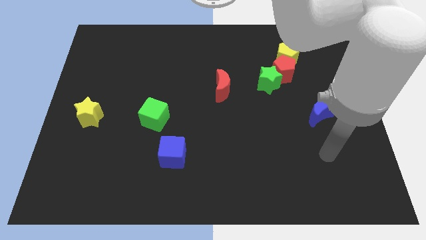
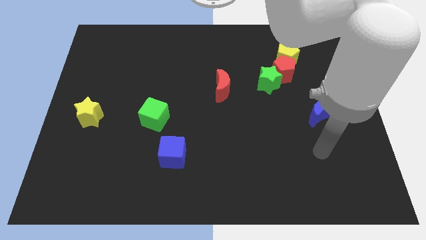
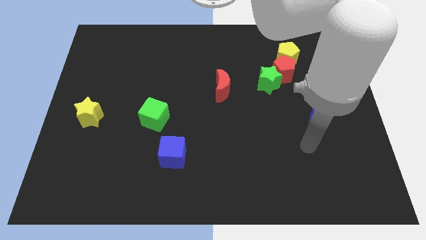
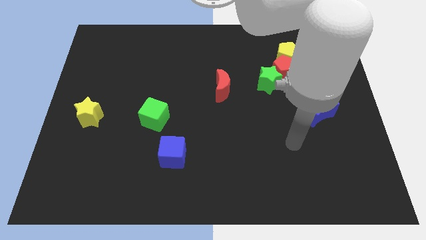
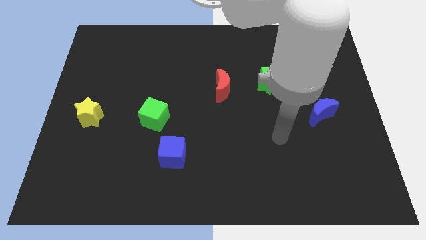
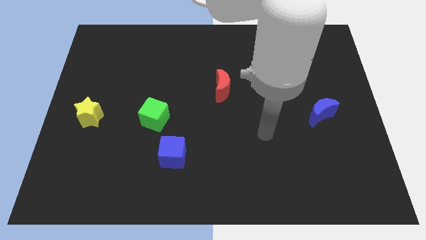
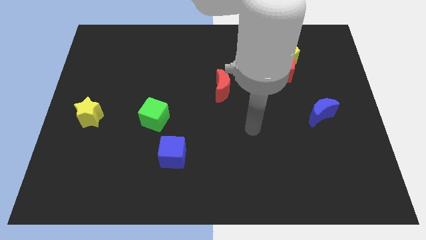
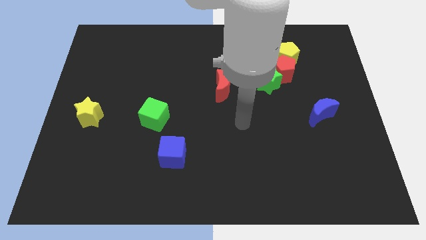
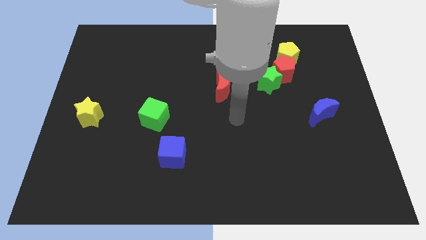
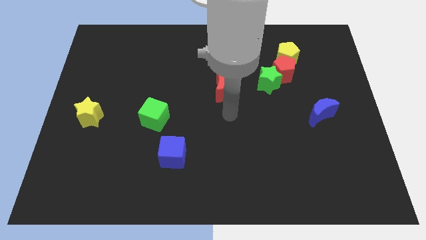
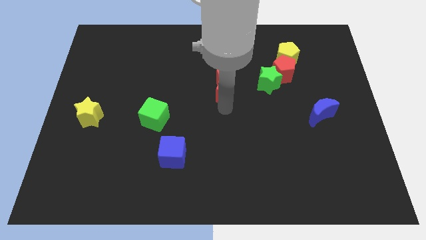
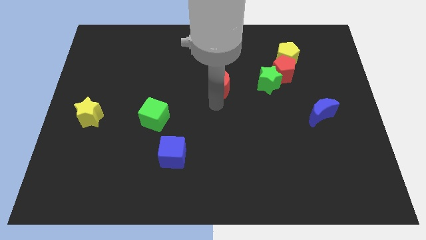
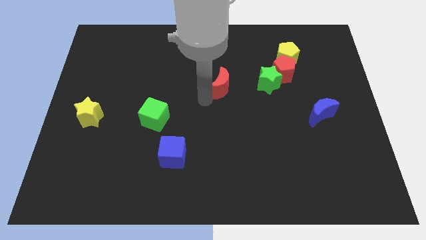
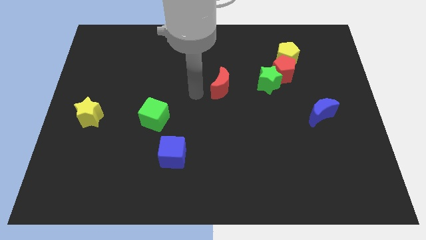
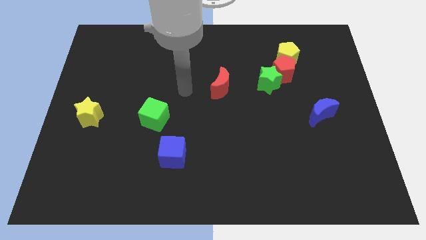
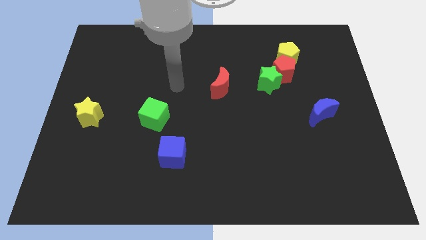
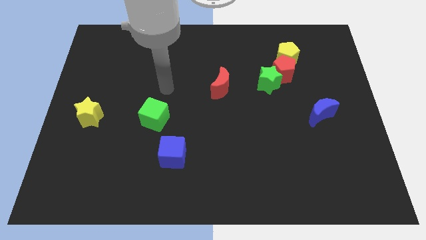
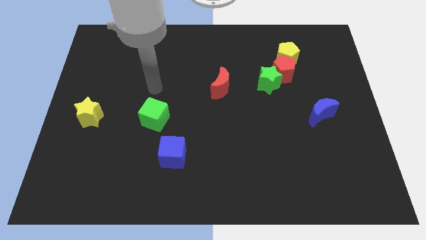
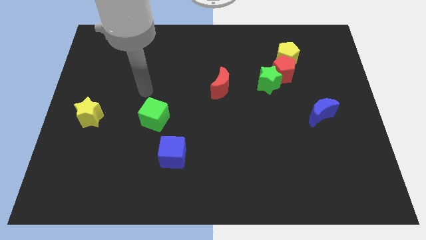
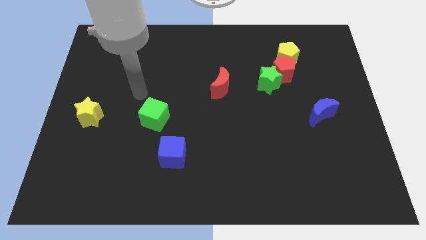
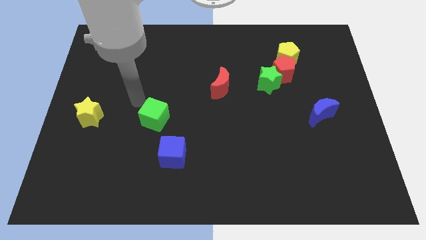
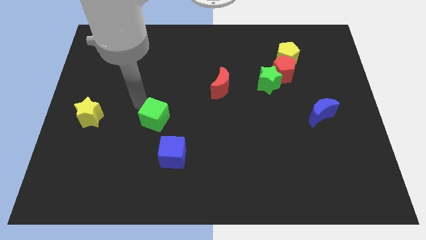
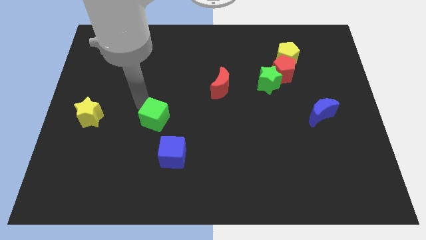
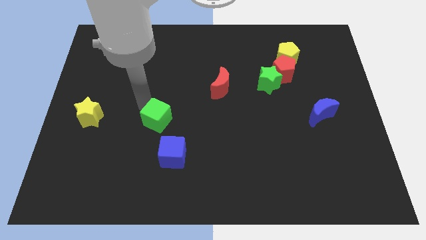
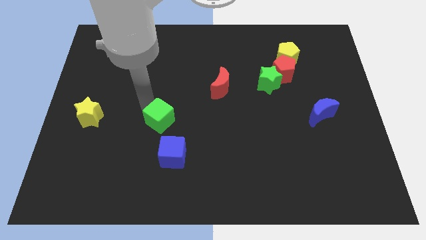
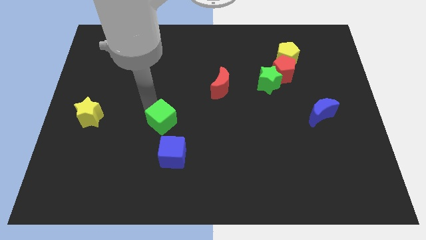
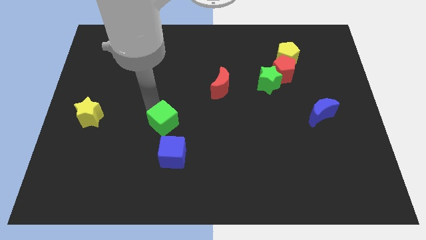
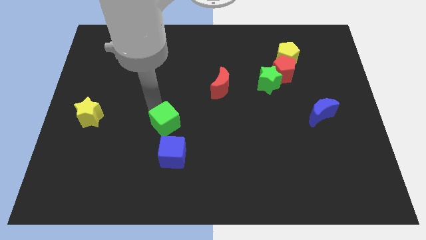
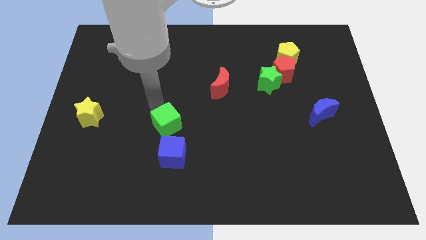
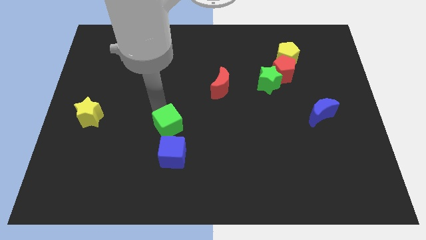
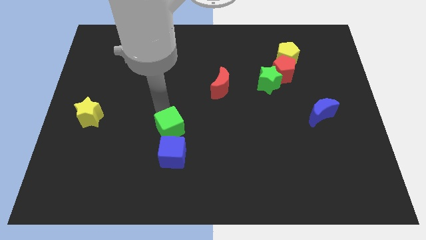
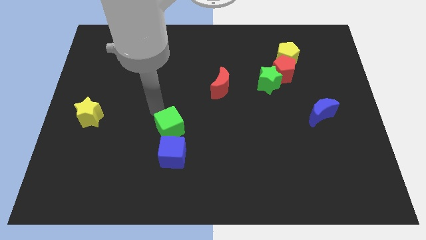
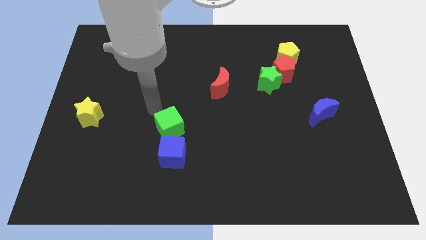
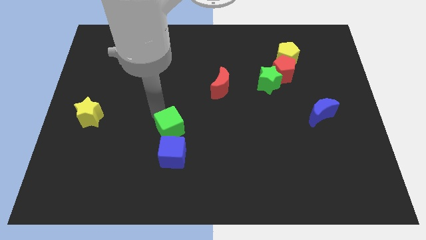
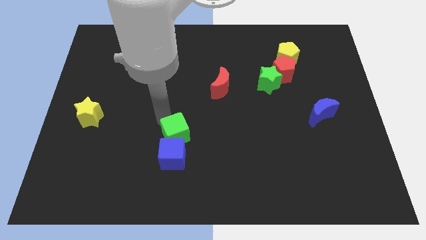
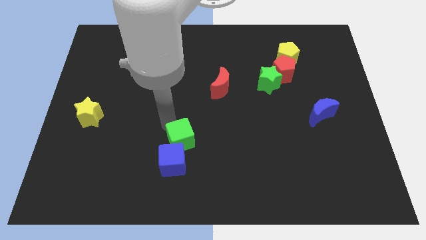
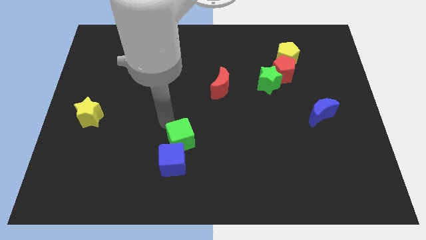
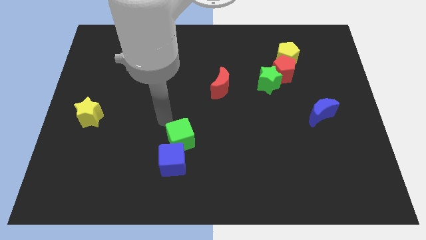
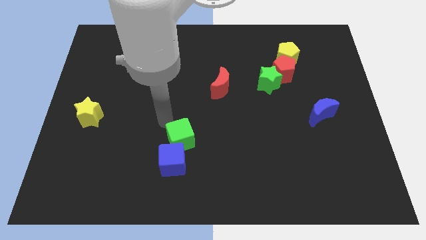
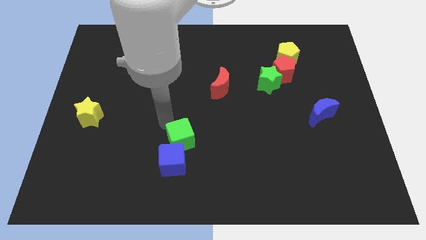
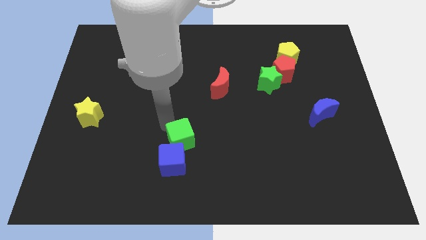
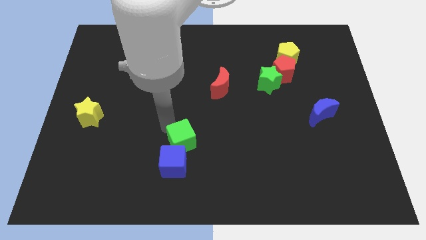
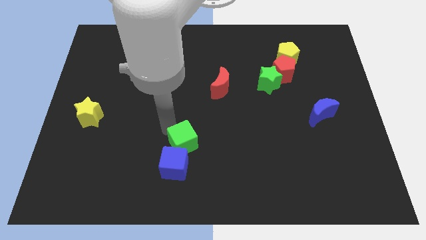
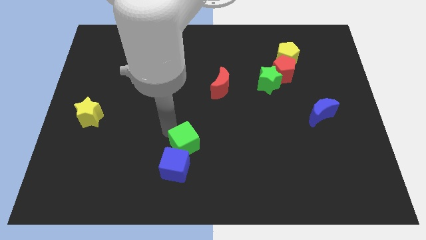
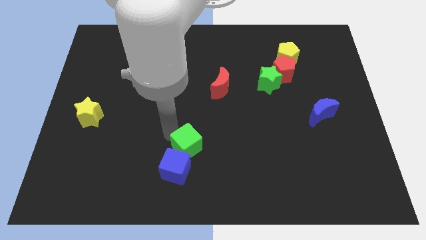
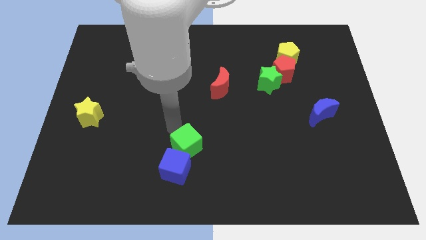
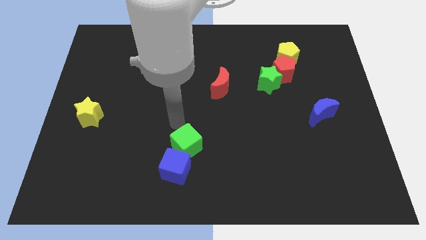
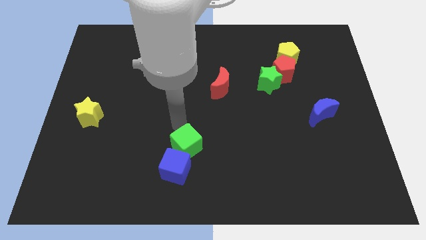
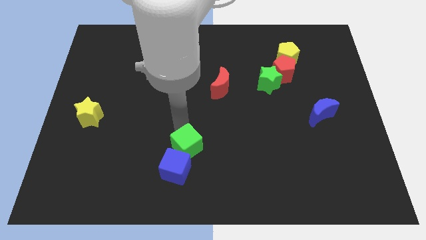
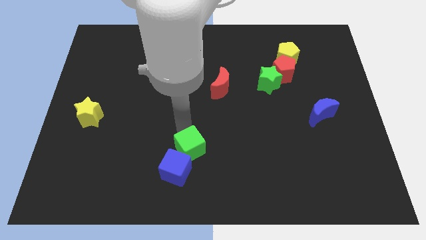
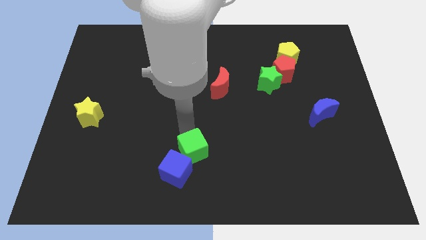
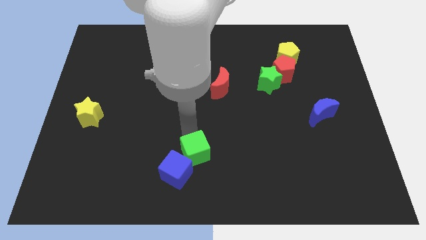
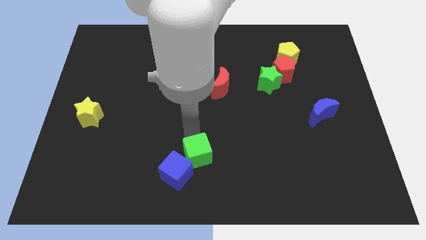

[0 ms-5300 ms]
slide the green cube to the bottom side

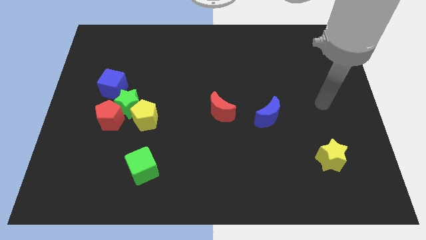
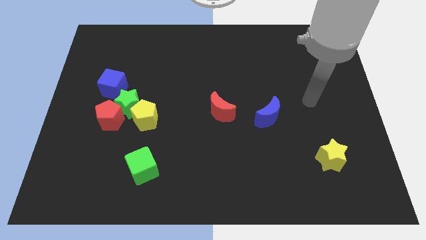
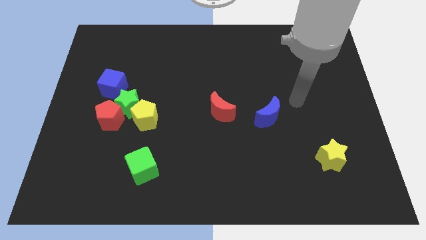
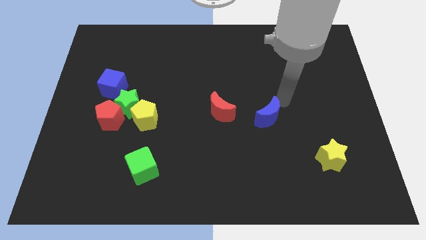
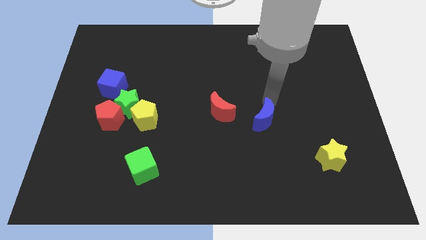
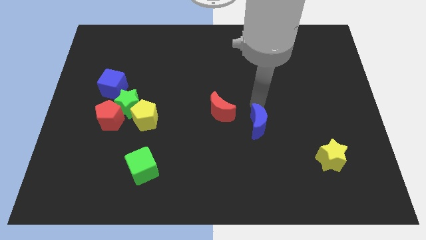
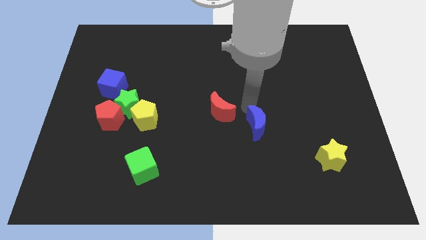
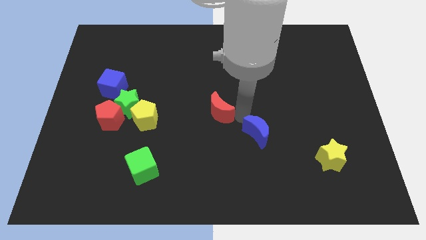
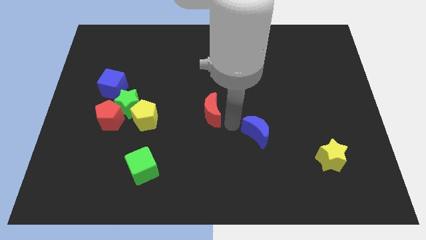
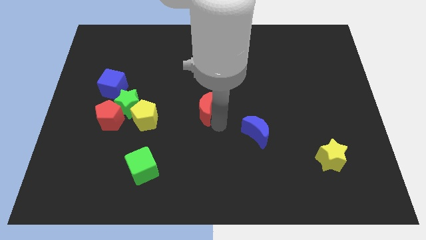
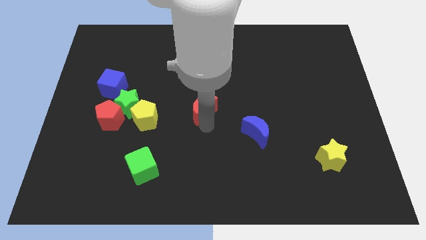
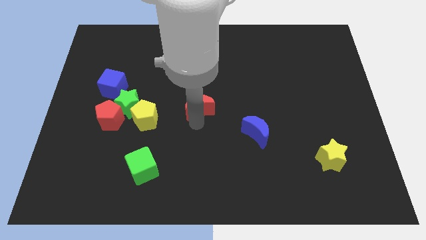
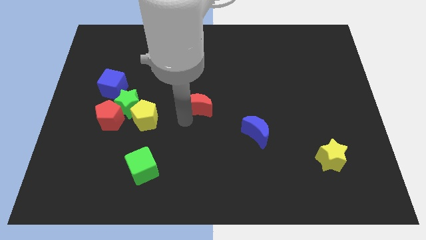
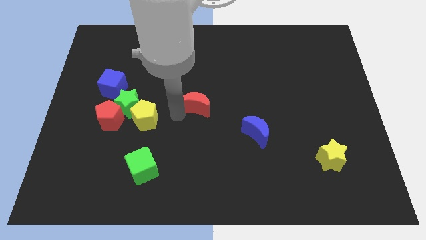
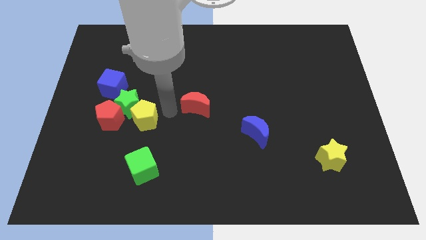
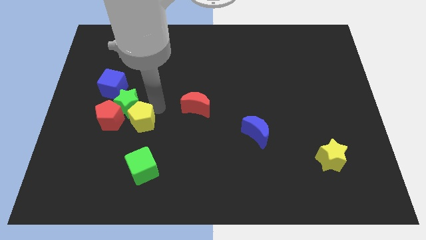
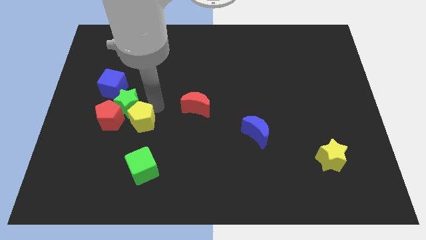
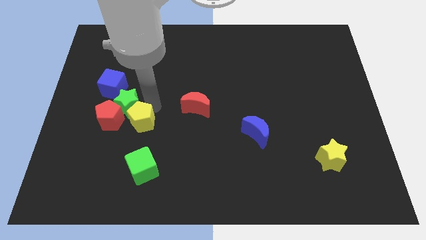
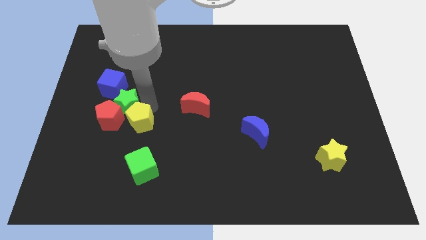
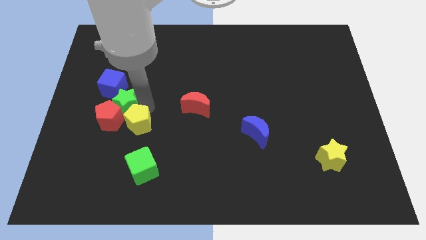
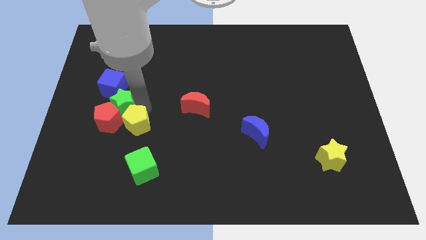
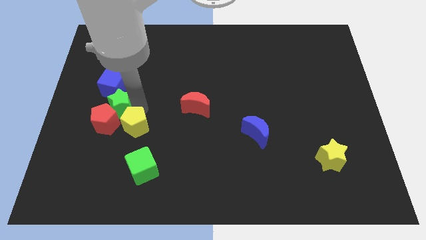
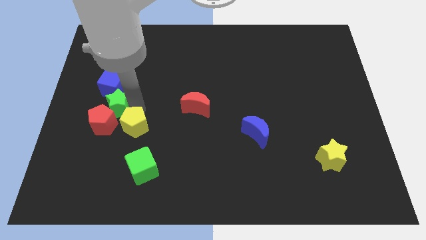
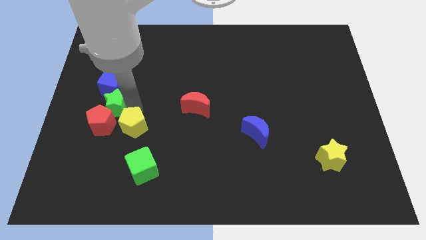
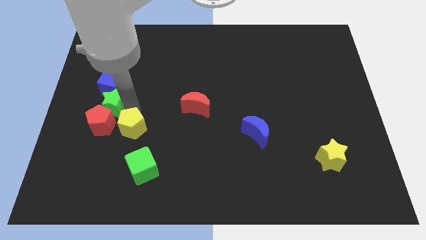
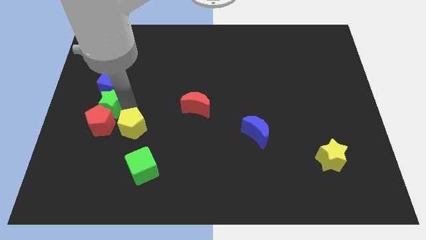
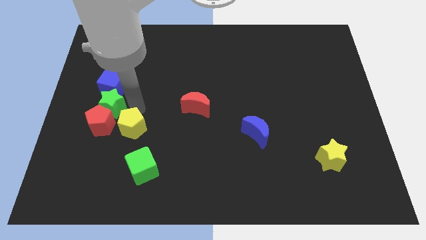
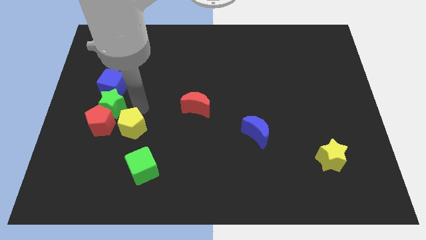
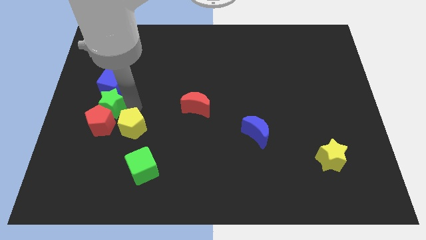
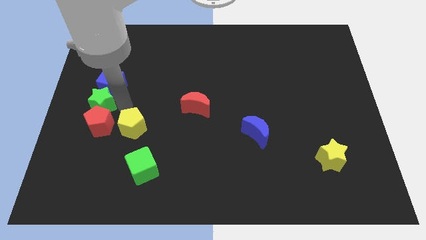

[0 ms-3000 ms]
slide the green star to the center left
